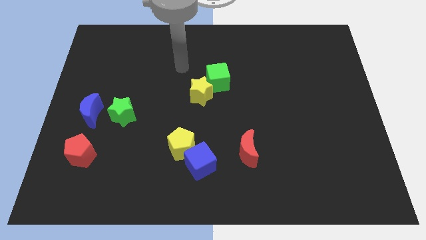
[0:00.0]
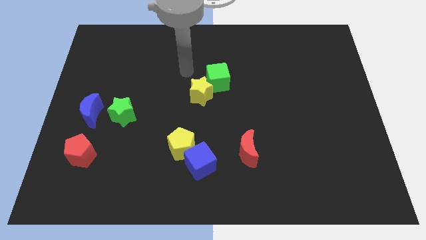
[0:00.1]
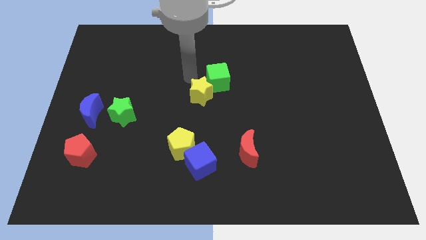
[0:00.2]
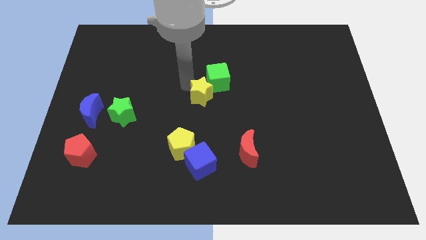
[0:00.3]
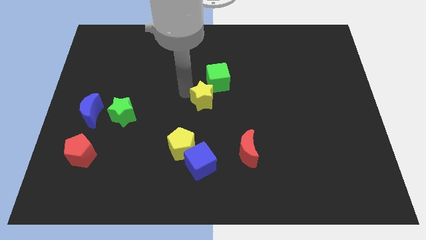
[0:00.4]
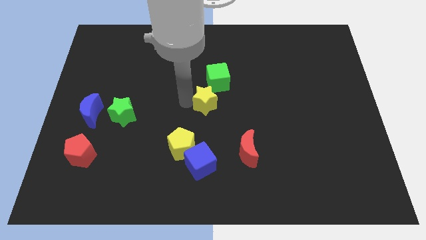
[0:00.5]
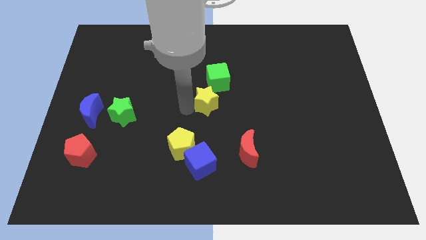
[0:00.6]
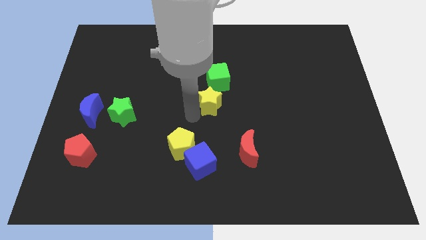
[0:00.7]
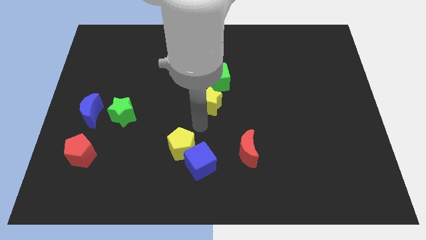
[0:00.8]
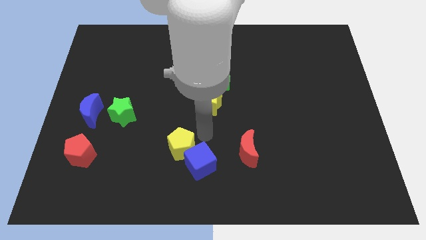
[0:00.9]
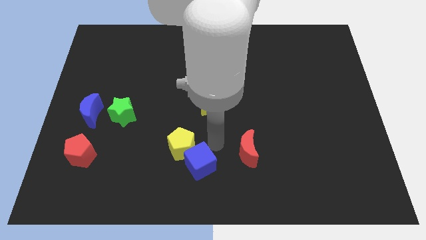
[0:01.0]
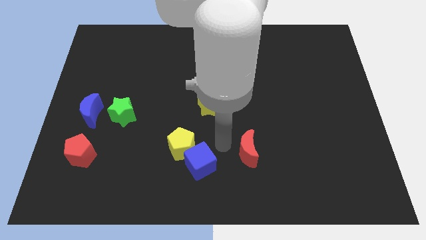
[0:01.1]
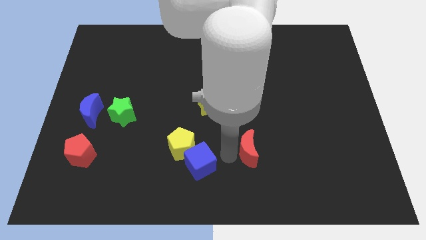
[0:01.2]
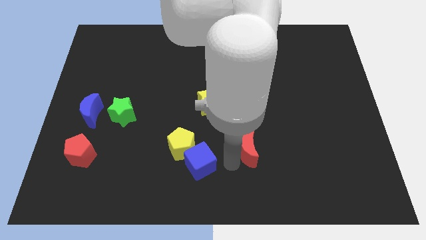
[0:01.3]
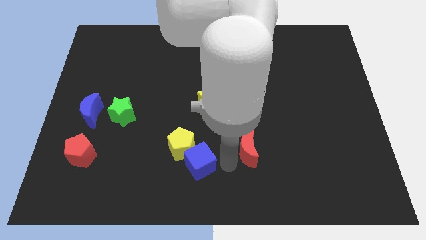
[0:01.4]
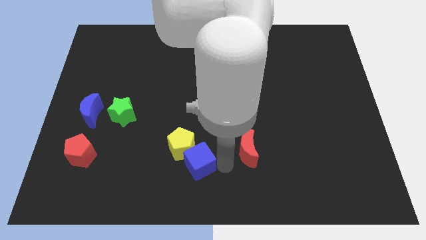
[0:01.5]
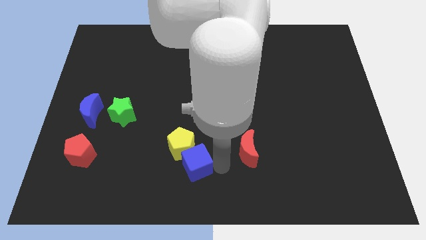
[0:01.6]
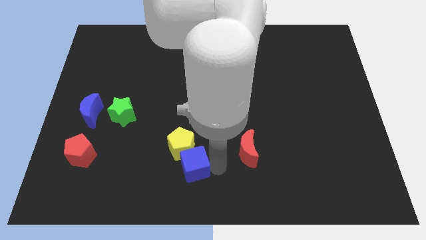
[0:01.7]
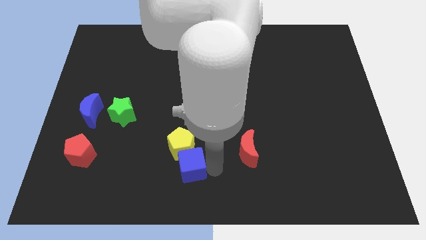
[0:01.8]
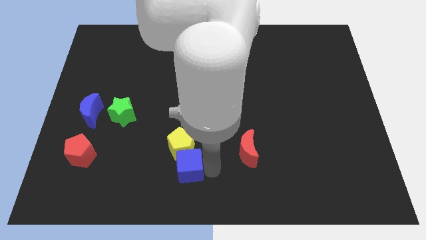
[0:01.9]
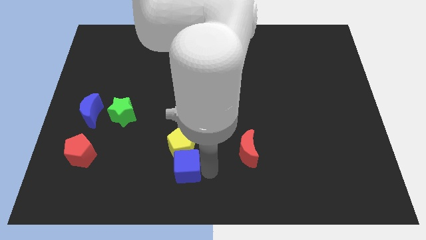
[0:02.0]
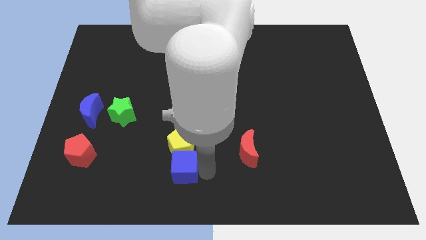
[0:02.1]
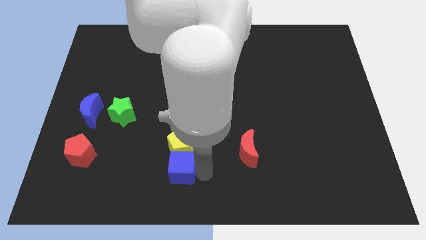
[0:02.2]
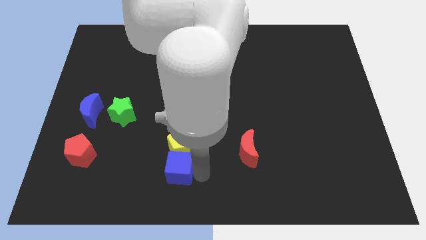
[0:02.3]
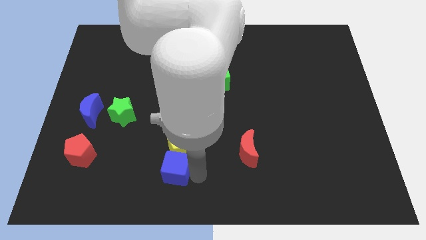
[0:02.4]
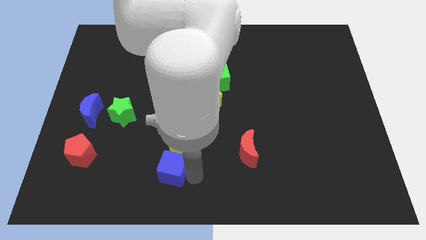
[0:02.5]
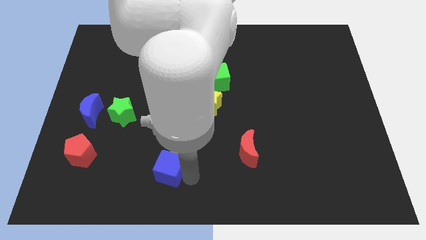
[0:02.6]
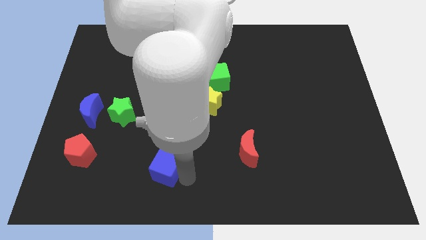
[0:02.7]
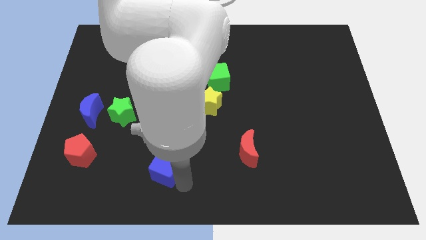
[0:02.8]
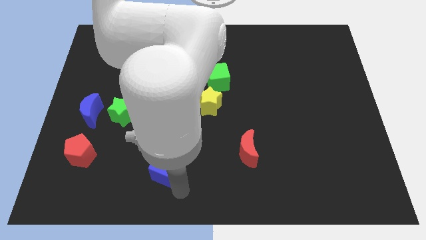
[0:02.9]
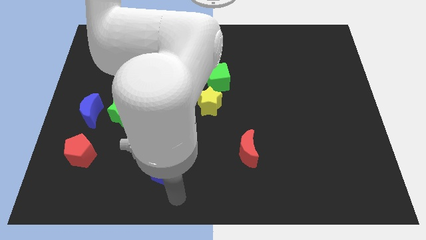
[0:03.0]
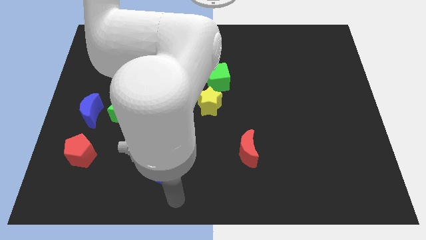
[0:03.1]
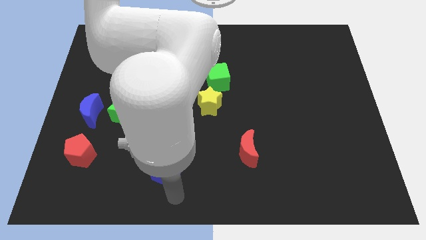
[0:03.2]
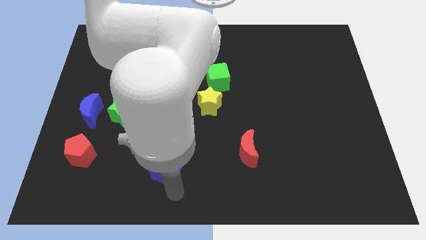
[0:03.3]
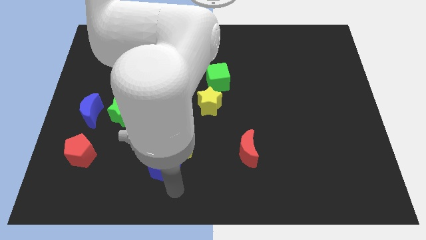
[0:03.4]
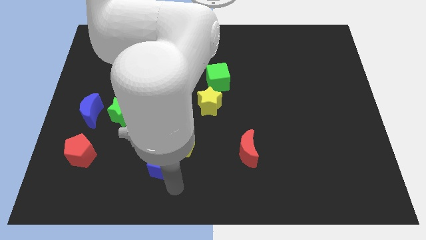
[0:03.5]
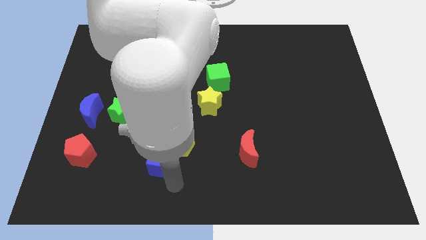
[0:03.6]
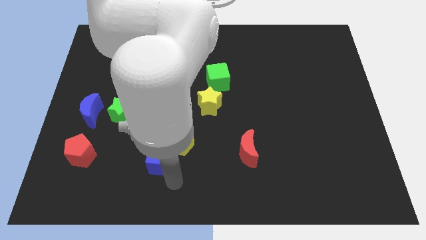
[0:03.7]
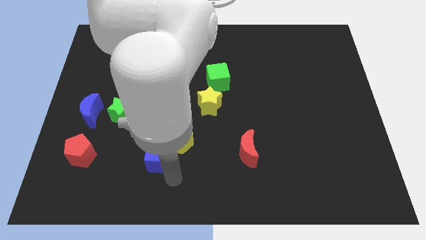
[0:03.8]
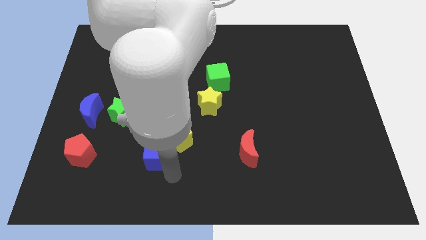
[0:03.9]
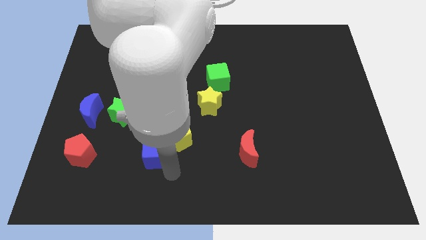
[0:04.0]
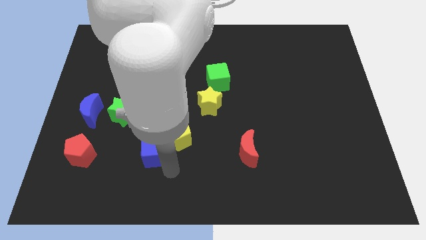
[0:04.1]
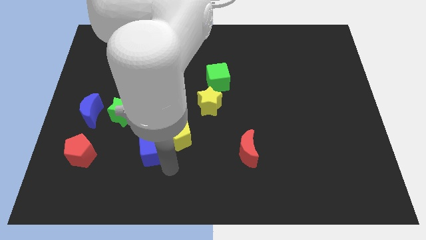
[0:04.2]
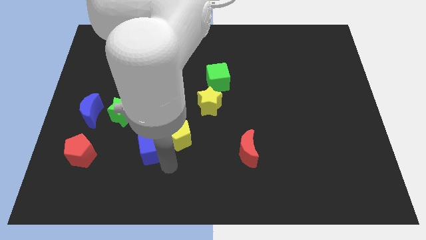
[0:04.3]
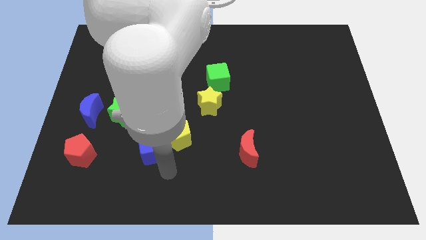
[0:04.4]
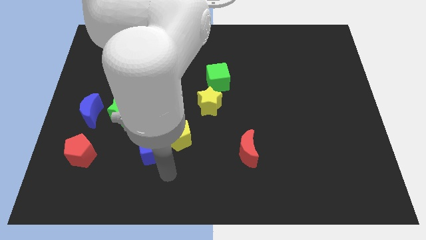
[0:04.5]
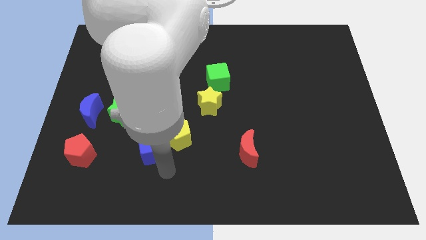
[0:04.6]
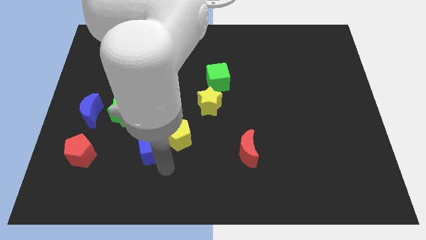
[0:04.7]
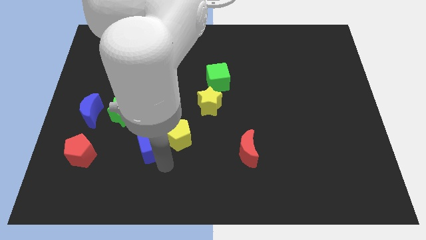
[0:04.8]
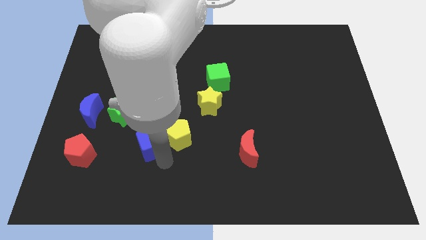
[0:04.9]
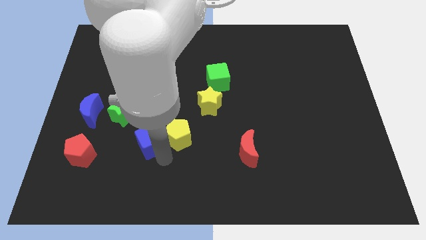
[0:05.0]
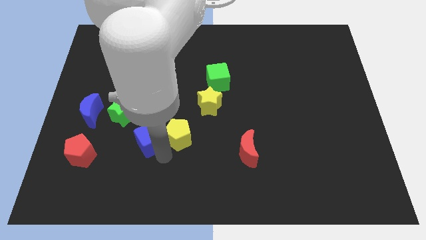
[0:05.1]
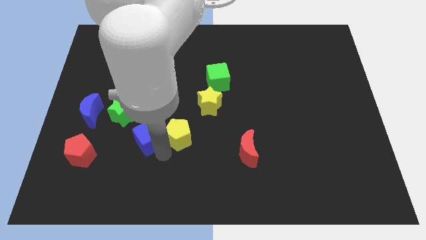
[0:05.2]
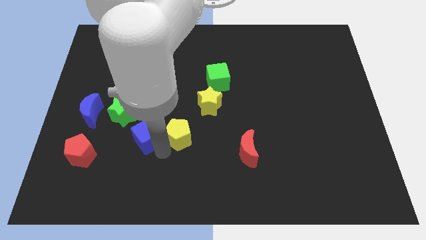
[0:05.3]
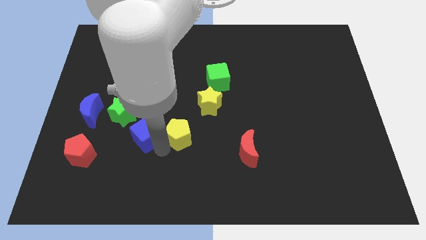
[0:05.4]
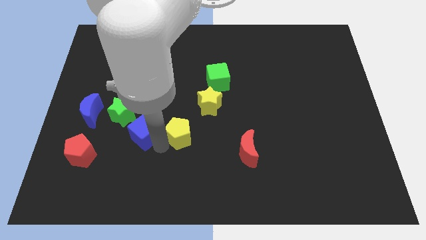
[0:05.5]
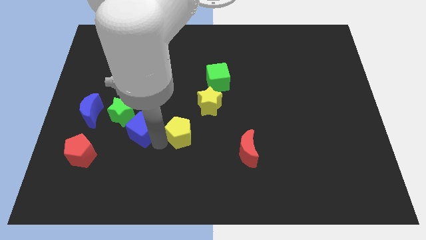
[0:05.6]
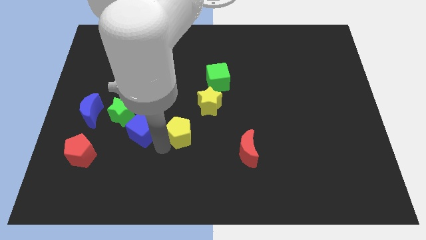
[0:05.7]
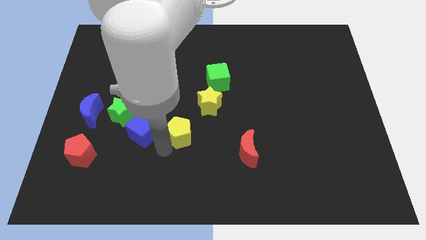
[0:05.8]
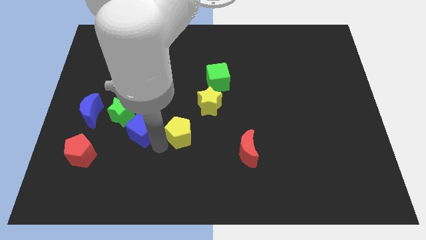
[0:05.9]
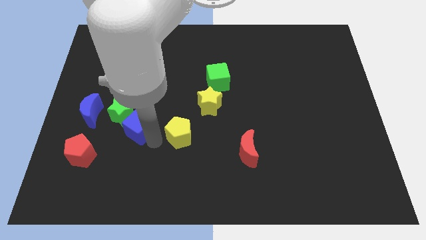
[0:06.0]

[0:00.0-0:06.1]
slide the blue cube towards the green star

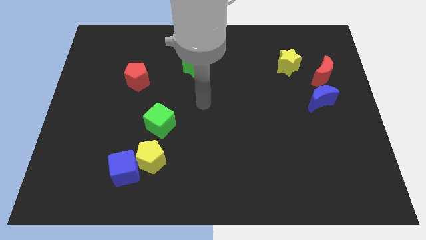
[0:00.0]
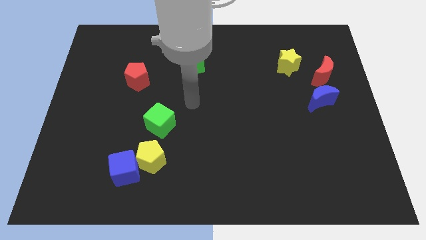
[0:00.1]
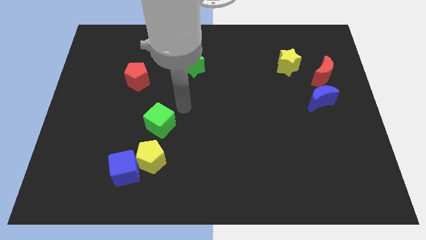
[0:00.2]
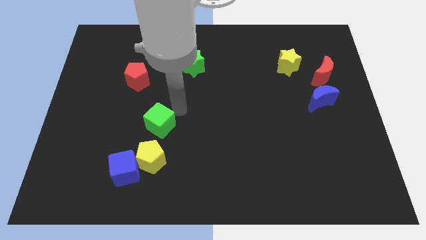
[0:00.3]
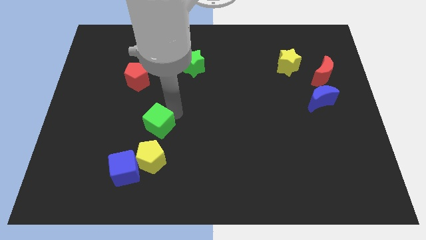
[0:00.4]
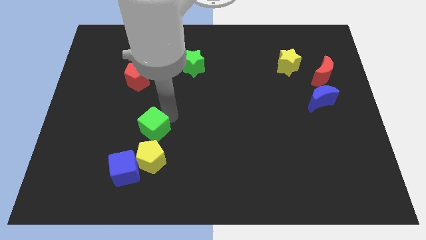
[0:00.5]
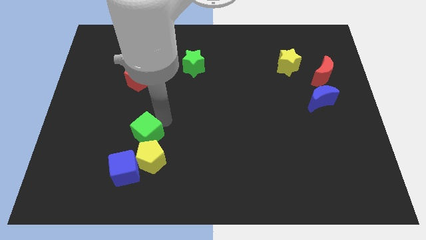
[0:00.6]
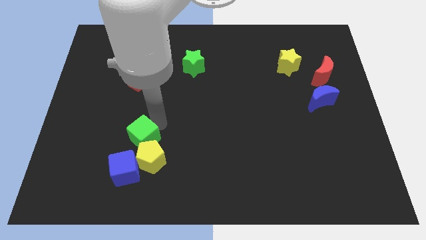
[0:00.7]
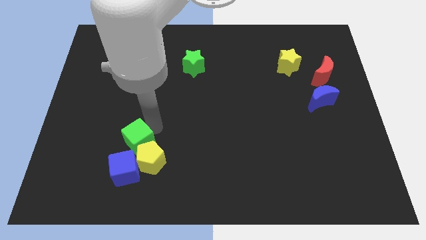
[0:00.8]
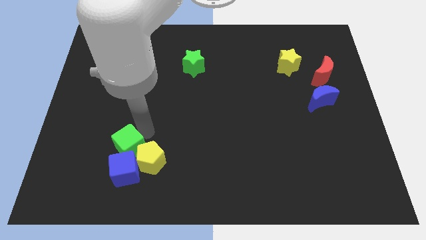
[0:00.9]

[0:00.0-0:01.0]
push the green cube to the blue cube

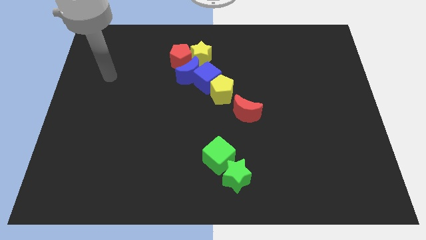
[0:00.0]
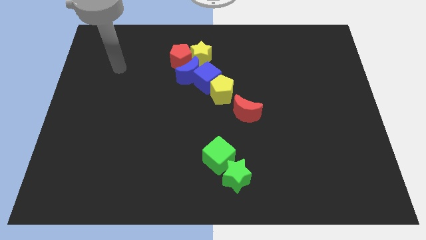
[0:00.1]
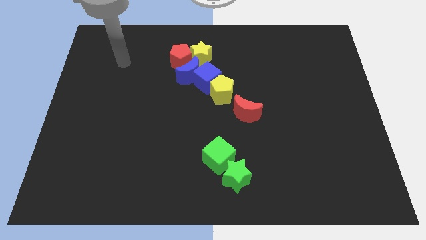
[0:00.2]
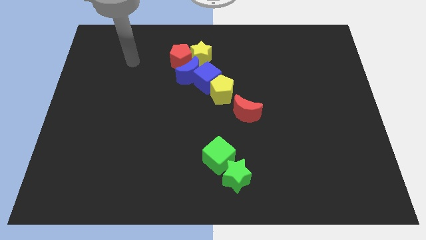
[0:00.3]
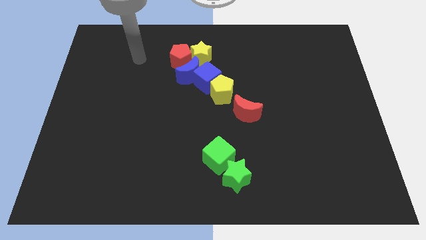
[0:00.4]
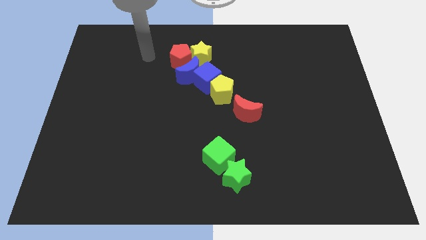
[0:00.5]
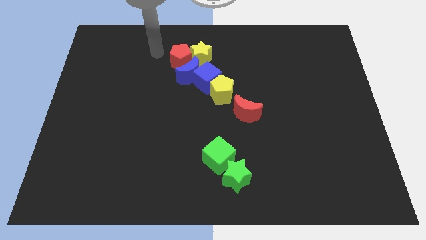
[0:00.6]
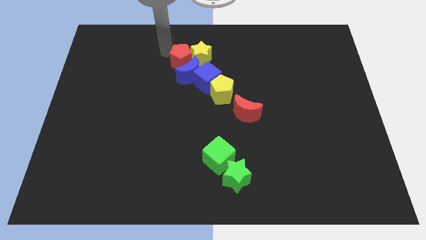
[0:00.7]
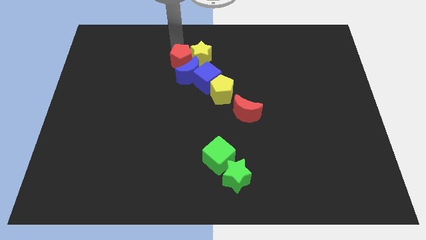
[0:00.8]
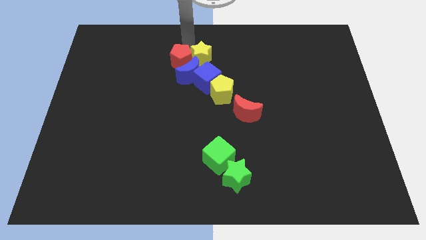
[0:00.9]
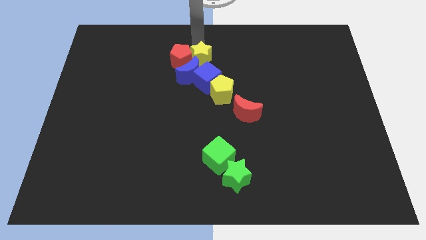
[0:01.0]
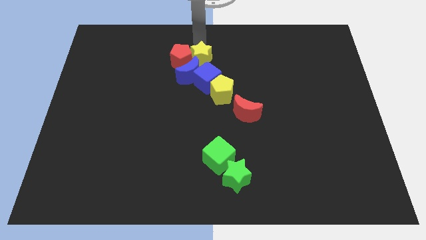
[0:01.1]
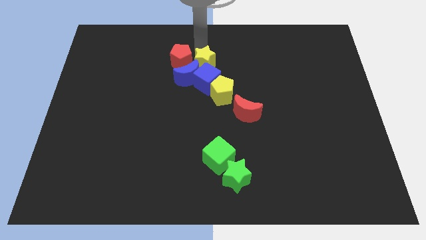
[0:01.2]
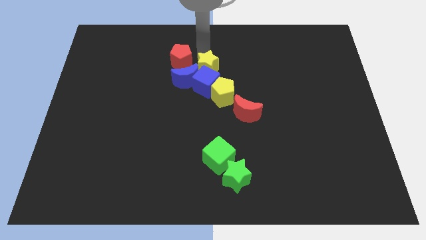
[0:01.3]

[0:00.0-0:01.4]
slide the yellow star next to the blue cube
